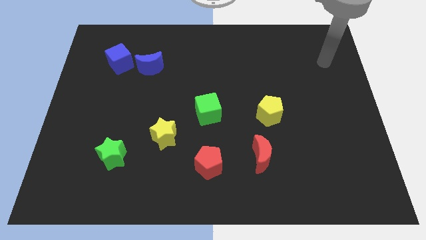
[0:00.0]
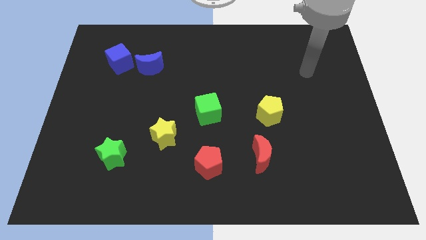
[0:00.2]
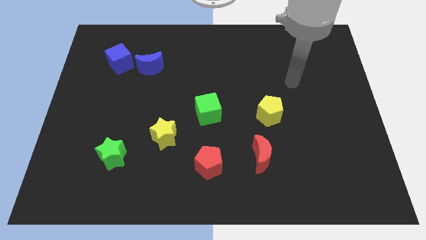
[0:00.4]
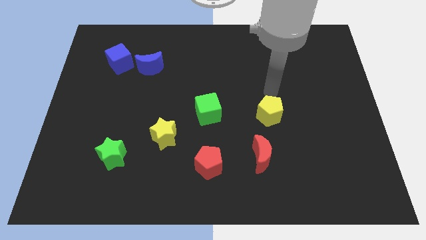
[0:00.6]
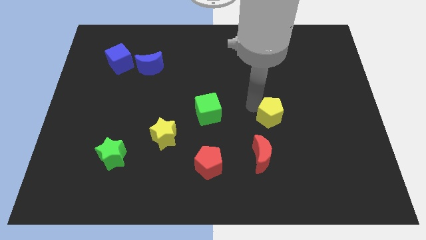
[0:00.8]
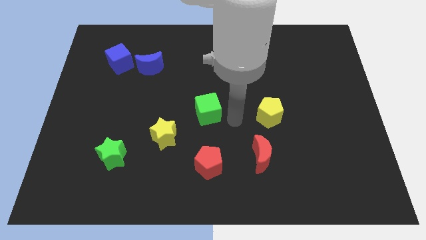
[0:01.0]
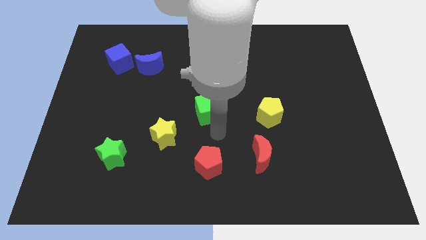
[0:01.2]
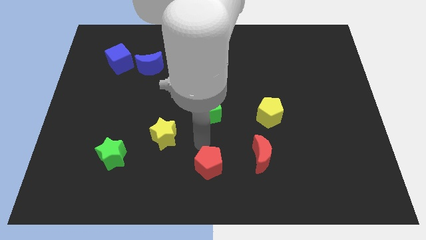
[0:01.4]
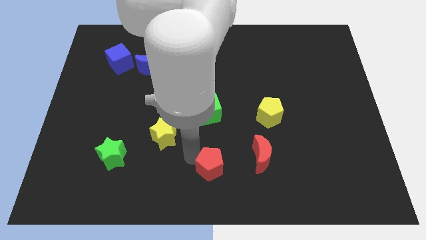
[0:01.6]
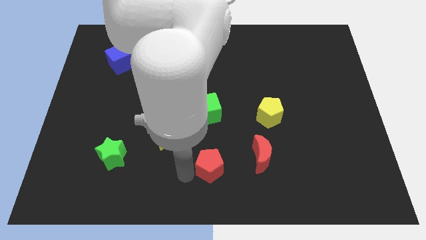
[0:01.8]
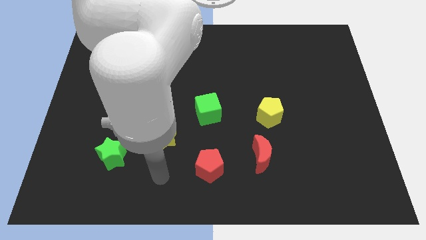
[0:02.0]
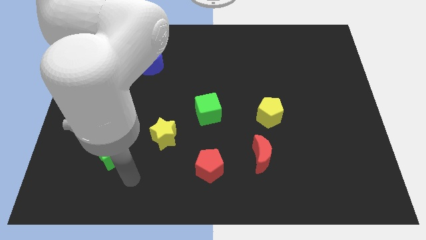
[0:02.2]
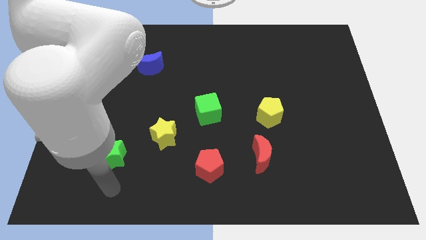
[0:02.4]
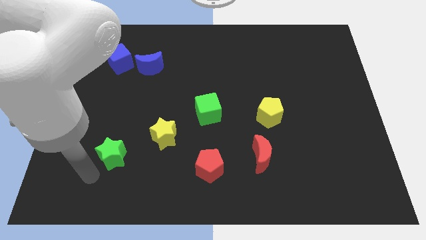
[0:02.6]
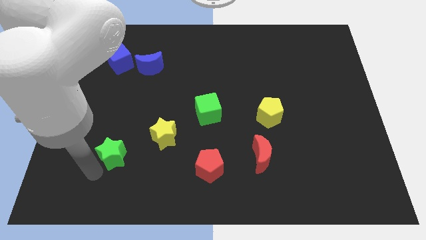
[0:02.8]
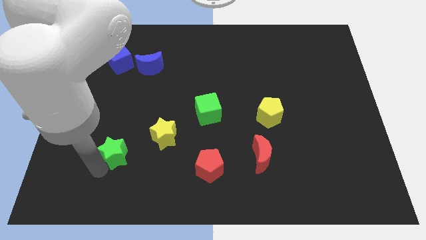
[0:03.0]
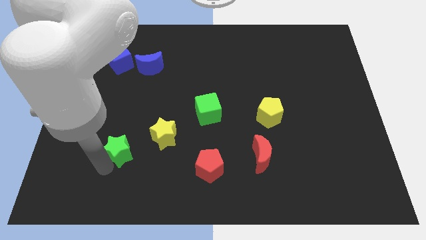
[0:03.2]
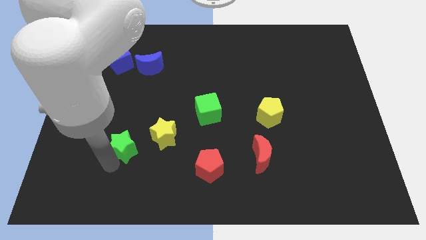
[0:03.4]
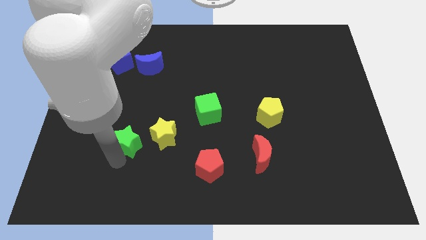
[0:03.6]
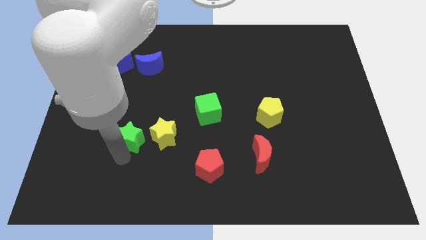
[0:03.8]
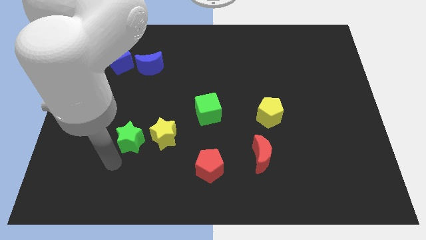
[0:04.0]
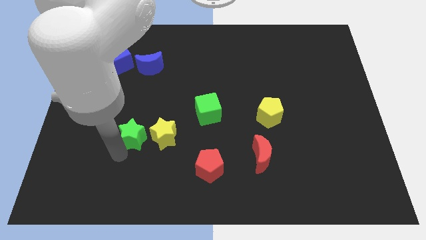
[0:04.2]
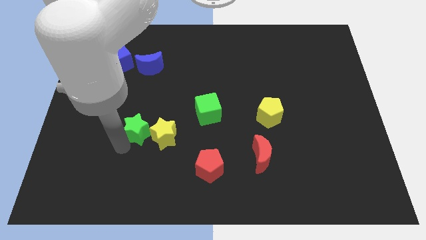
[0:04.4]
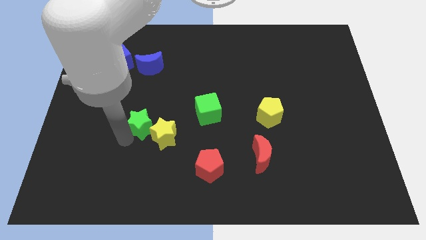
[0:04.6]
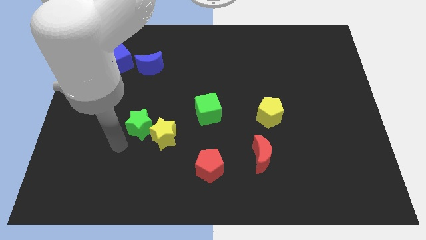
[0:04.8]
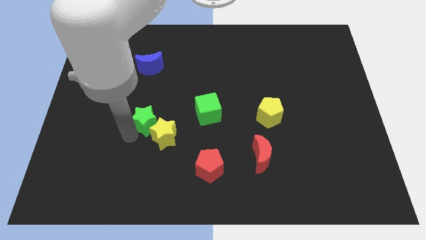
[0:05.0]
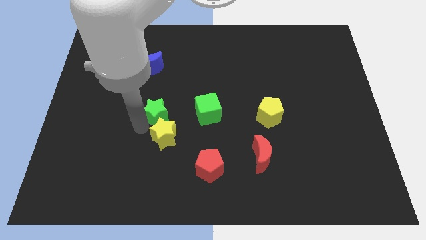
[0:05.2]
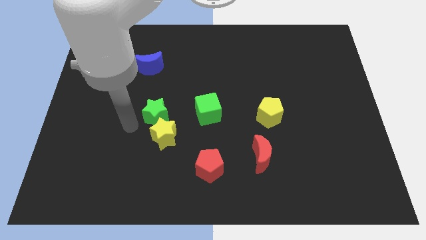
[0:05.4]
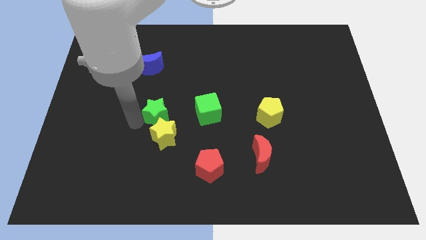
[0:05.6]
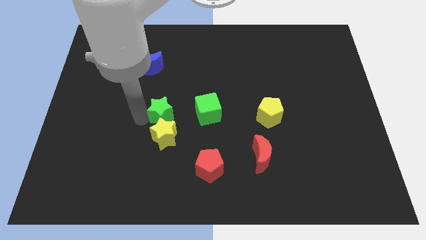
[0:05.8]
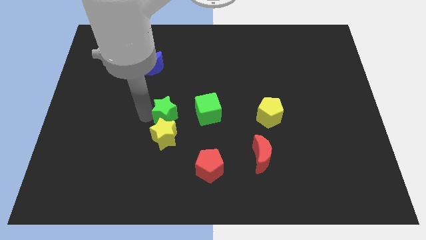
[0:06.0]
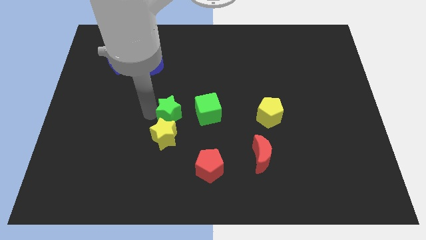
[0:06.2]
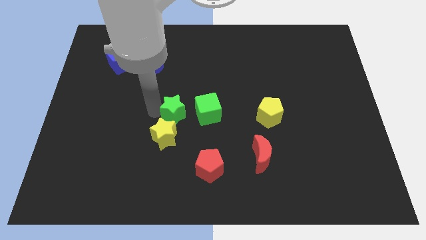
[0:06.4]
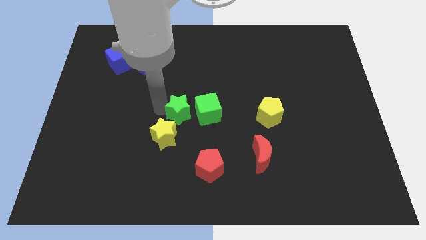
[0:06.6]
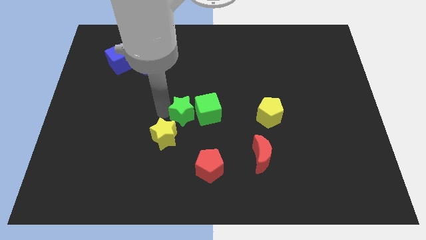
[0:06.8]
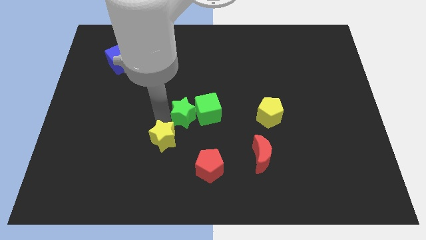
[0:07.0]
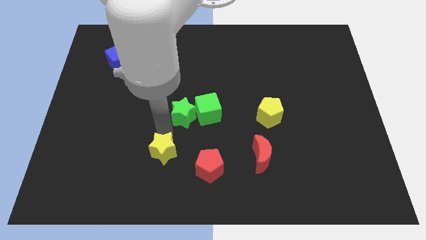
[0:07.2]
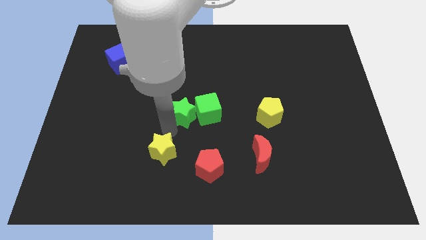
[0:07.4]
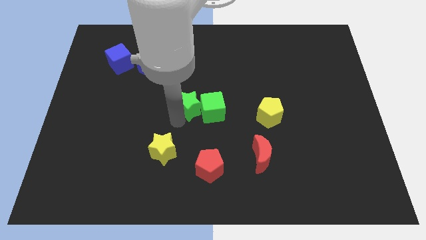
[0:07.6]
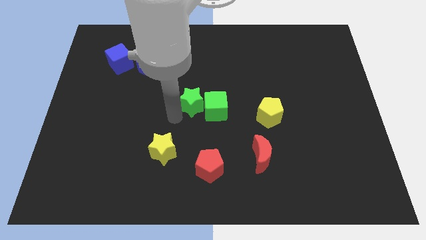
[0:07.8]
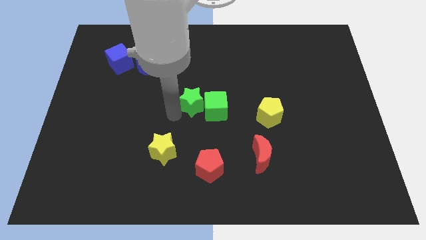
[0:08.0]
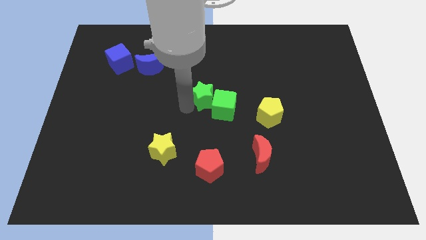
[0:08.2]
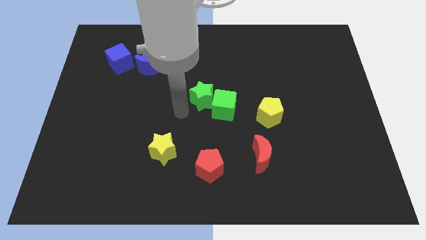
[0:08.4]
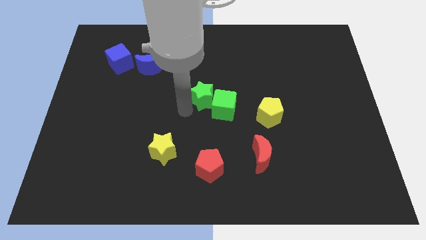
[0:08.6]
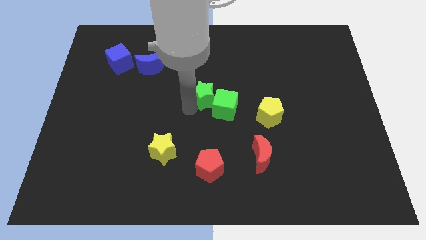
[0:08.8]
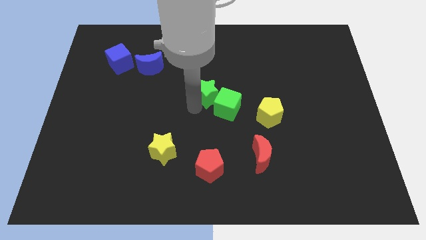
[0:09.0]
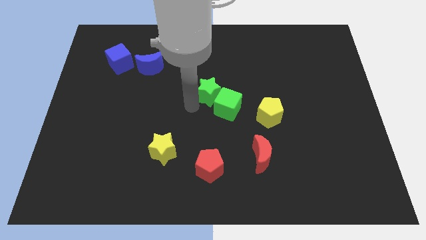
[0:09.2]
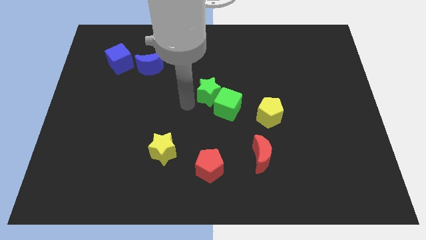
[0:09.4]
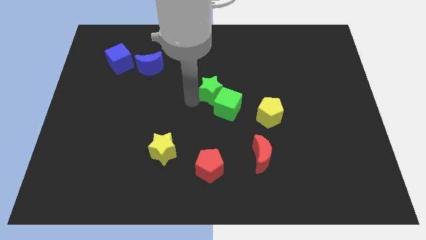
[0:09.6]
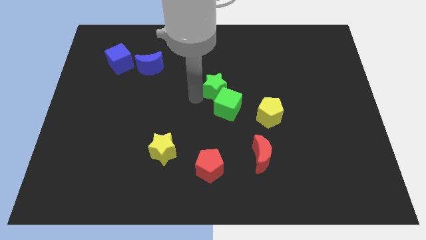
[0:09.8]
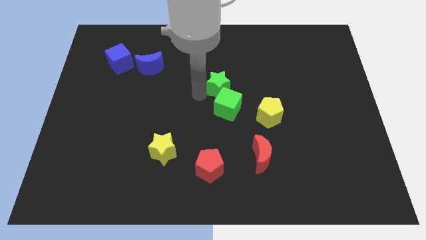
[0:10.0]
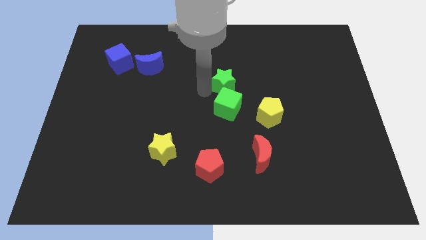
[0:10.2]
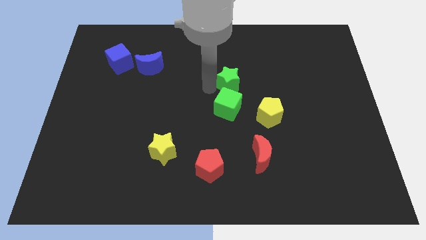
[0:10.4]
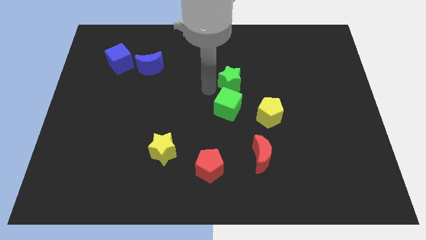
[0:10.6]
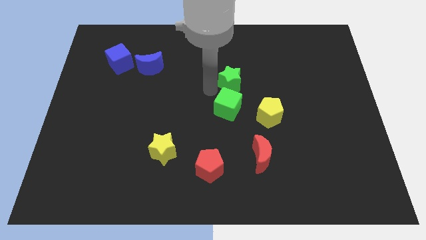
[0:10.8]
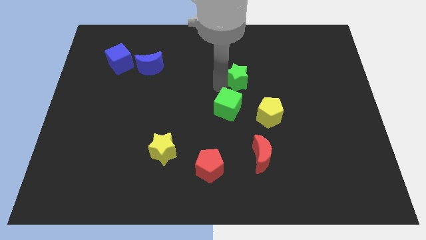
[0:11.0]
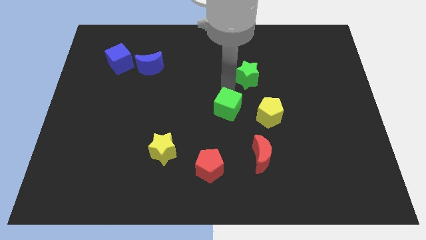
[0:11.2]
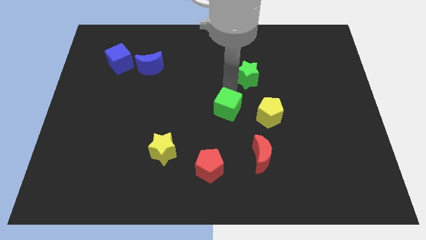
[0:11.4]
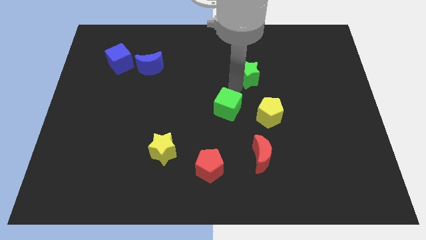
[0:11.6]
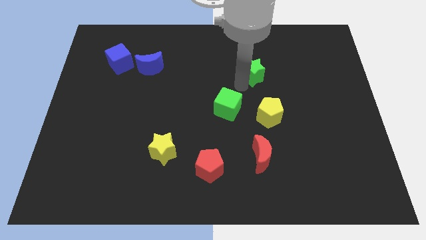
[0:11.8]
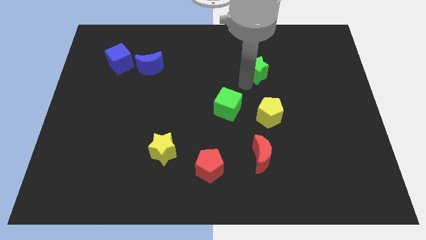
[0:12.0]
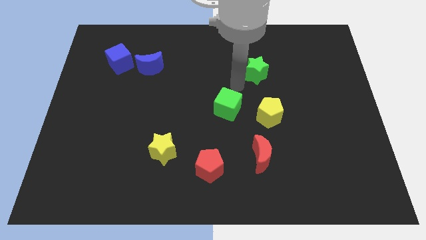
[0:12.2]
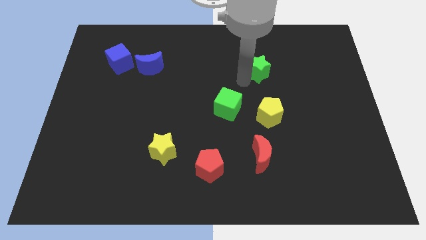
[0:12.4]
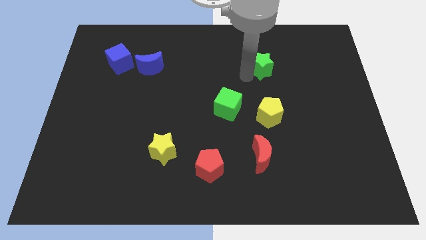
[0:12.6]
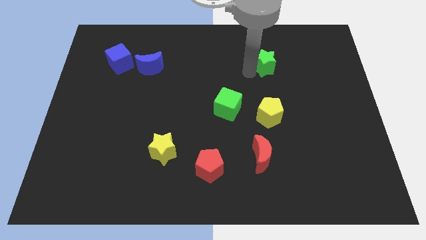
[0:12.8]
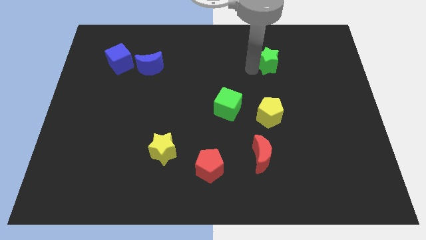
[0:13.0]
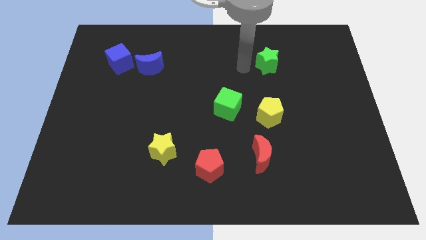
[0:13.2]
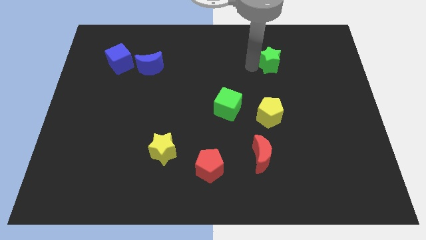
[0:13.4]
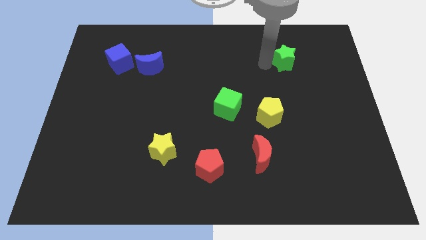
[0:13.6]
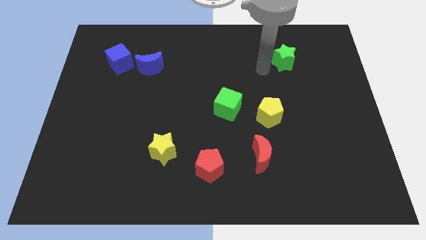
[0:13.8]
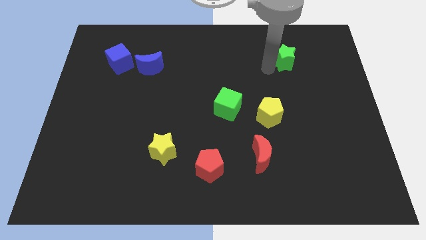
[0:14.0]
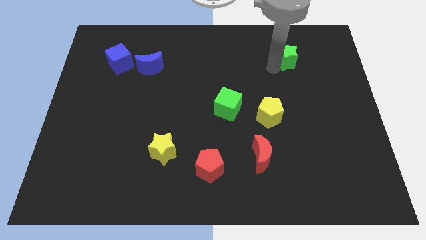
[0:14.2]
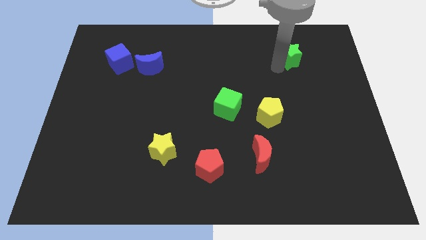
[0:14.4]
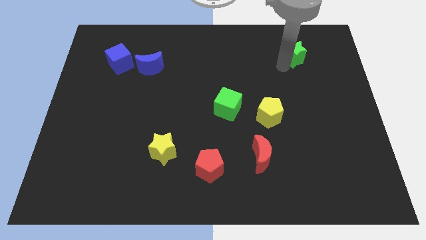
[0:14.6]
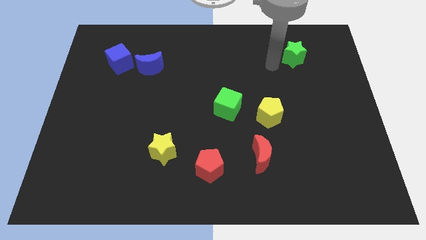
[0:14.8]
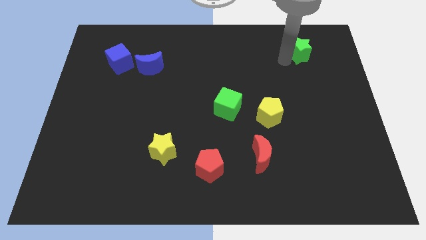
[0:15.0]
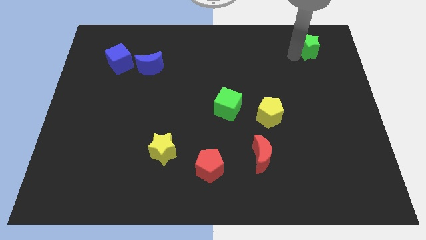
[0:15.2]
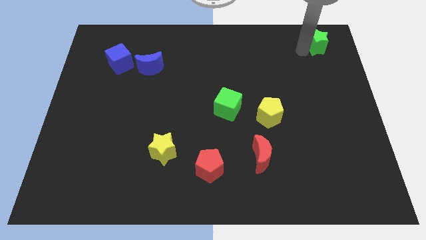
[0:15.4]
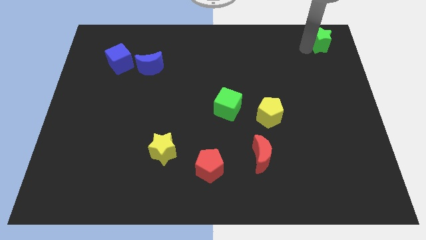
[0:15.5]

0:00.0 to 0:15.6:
push the green star to the upper right corner
